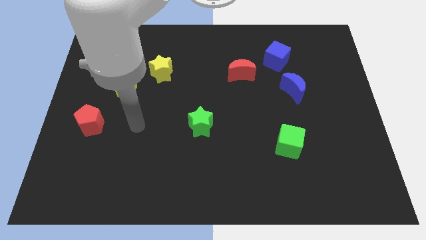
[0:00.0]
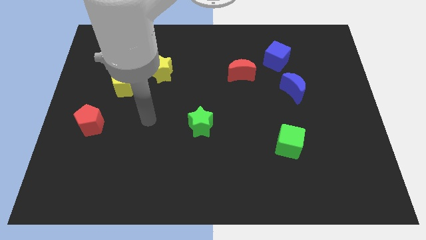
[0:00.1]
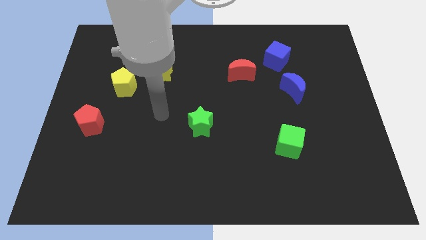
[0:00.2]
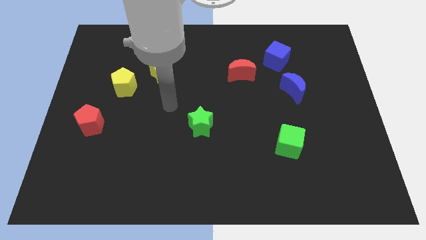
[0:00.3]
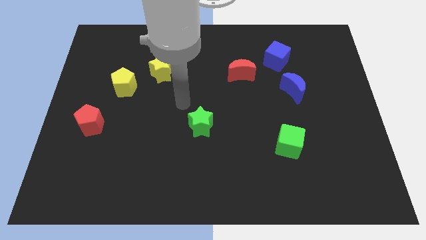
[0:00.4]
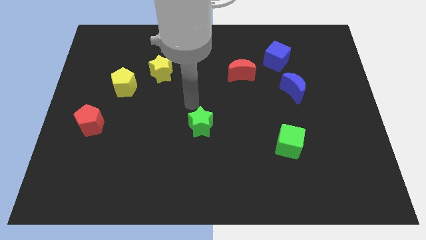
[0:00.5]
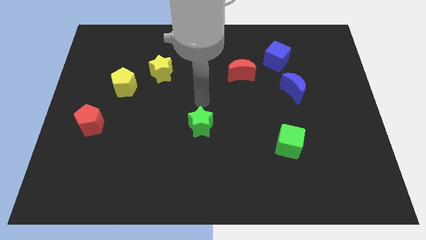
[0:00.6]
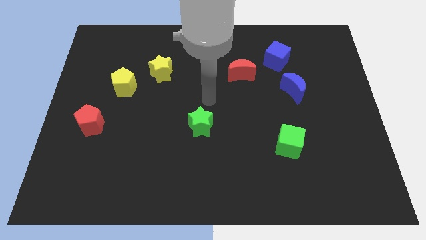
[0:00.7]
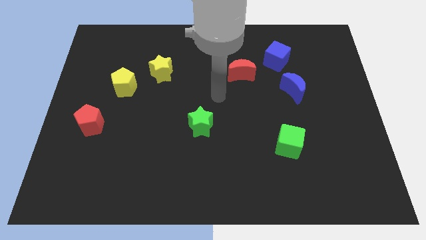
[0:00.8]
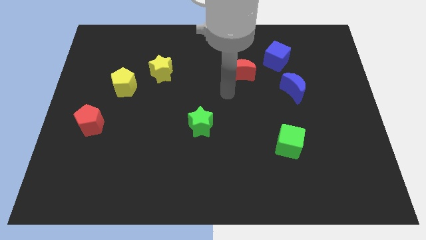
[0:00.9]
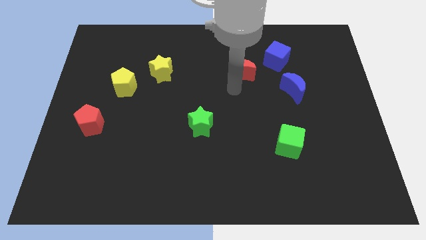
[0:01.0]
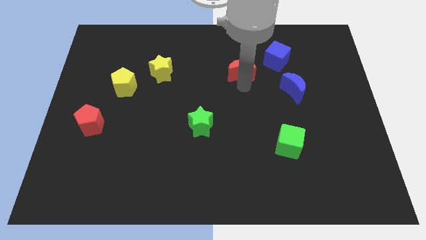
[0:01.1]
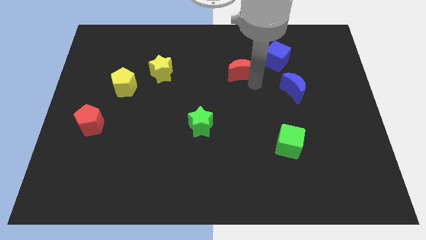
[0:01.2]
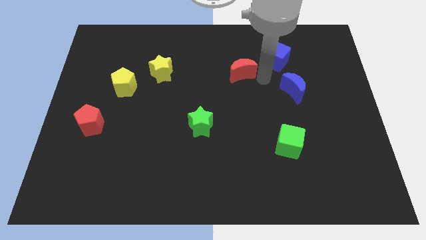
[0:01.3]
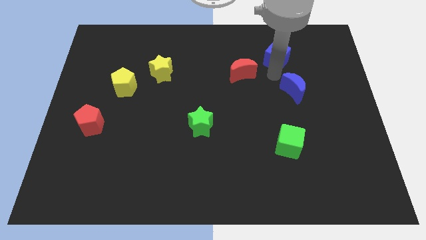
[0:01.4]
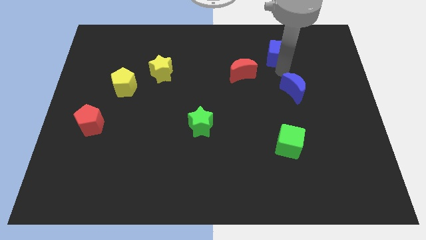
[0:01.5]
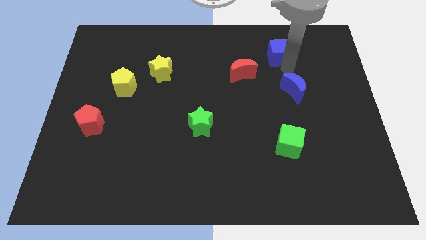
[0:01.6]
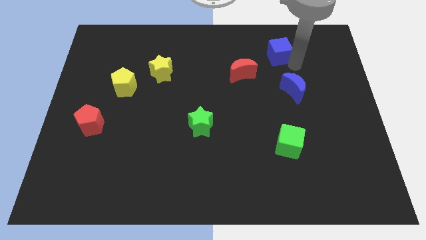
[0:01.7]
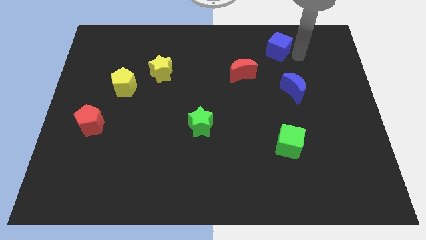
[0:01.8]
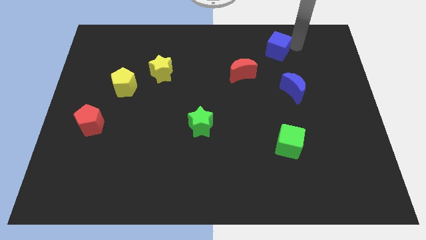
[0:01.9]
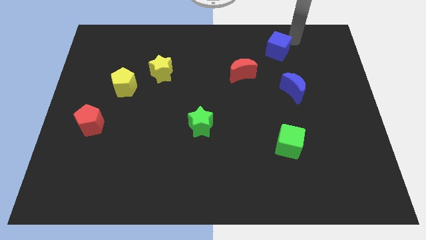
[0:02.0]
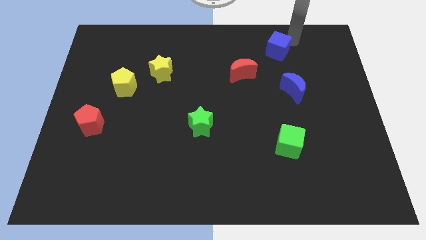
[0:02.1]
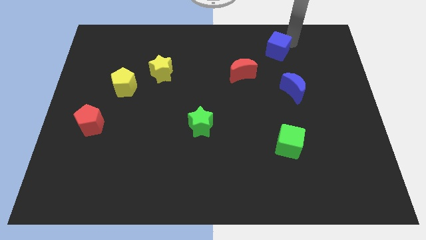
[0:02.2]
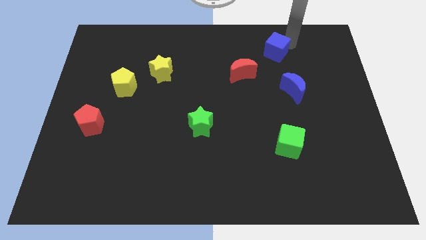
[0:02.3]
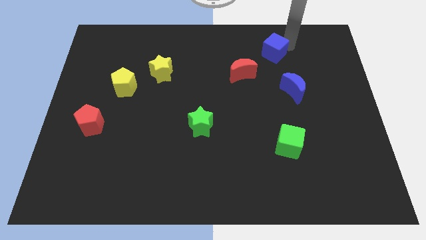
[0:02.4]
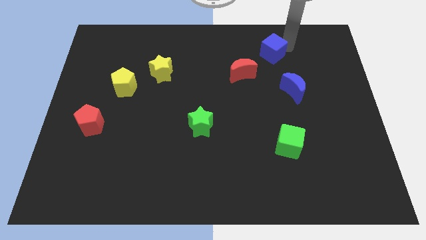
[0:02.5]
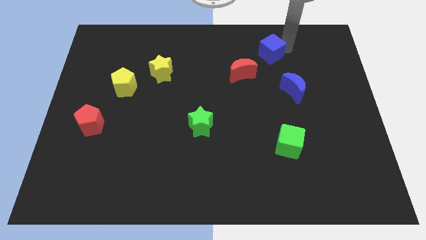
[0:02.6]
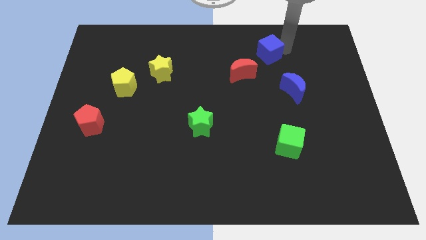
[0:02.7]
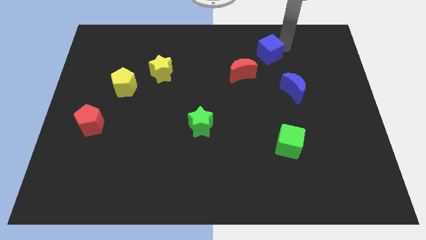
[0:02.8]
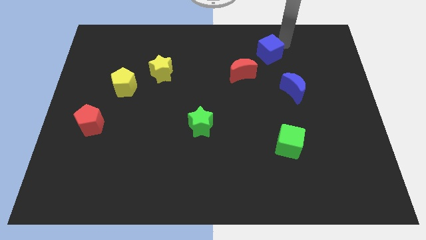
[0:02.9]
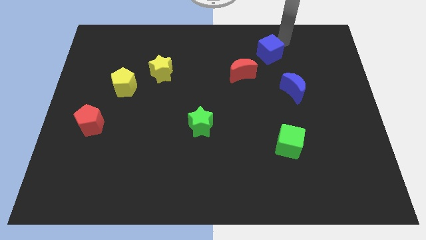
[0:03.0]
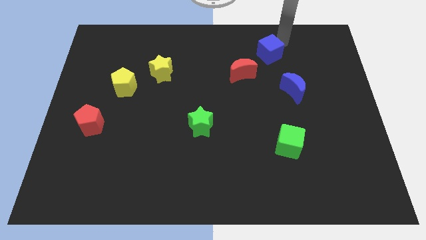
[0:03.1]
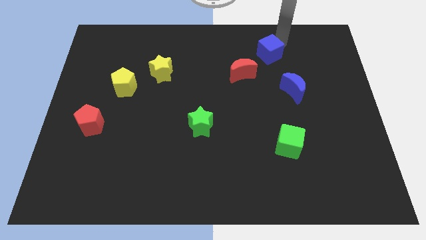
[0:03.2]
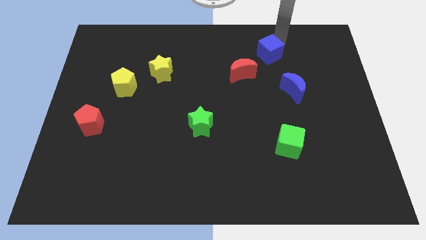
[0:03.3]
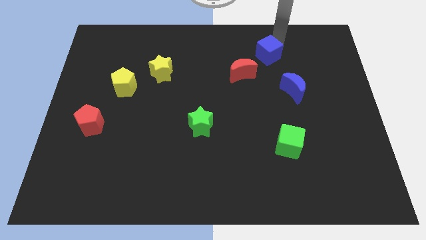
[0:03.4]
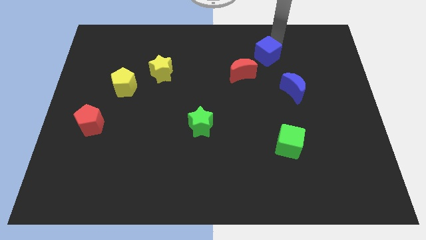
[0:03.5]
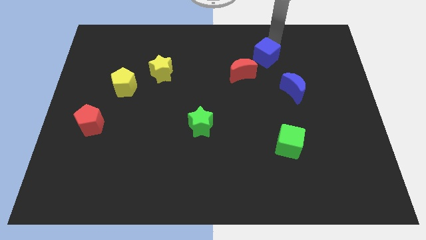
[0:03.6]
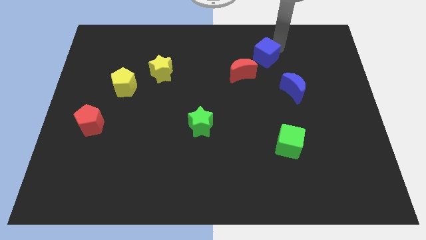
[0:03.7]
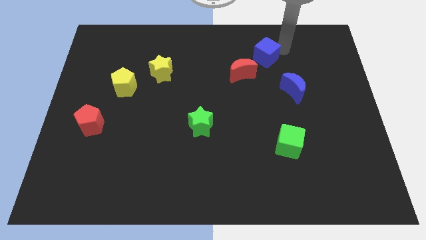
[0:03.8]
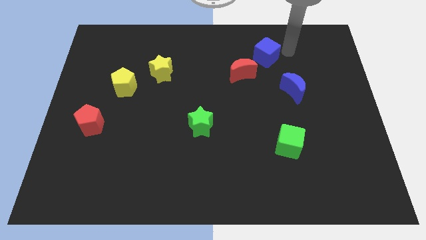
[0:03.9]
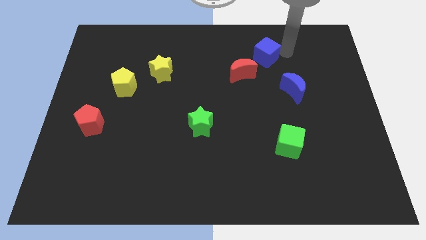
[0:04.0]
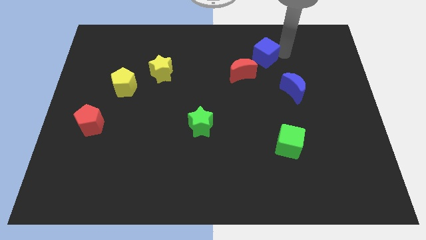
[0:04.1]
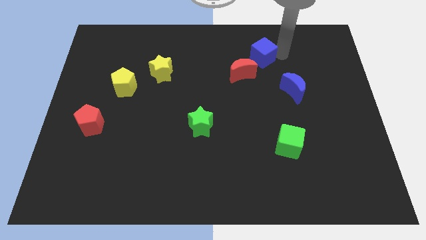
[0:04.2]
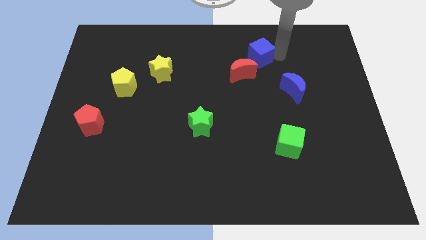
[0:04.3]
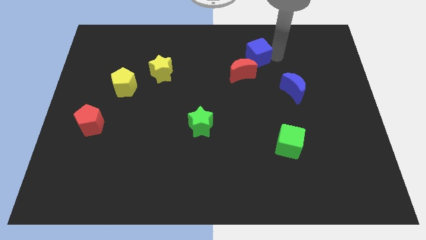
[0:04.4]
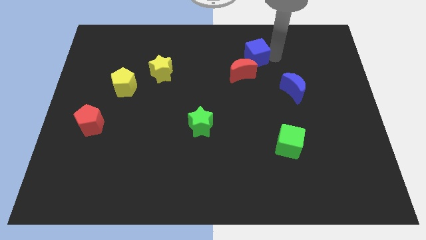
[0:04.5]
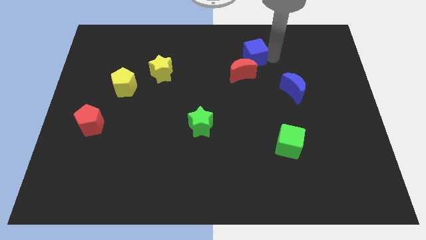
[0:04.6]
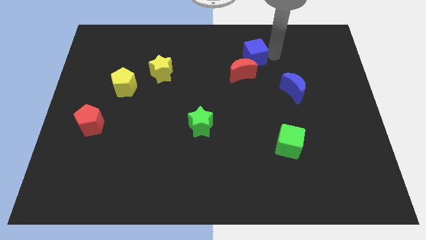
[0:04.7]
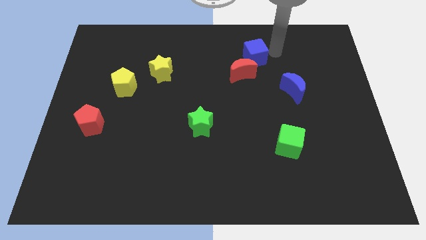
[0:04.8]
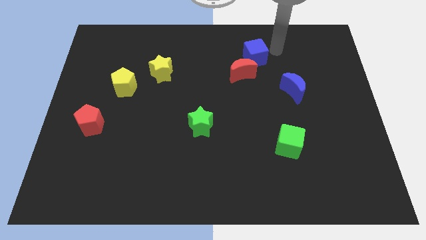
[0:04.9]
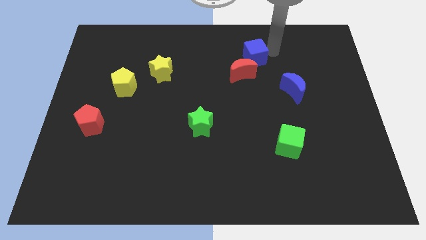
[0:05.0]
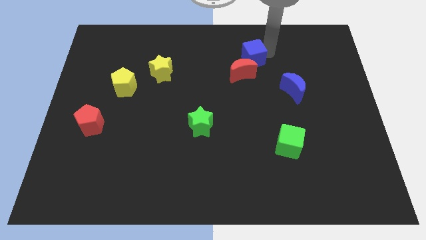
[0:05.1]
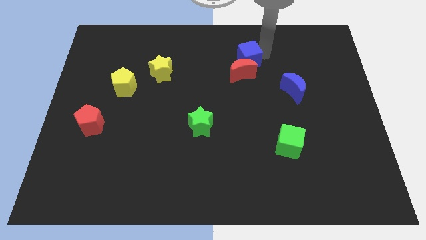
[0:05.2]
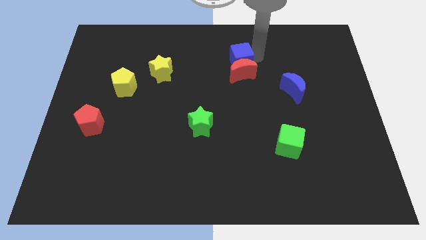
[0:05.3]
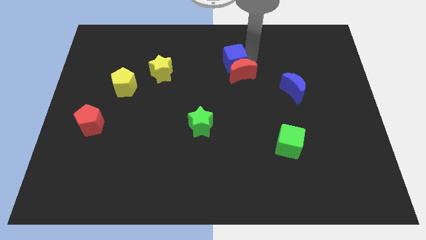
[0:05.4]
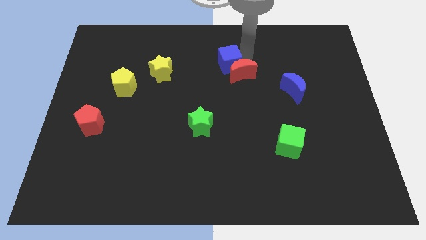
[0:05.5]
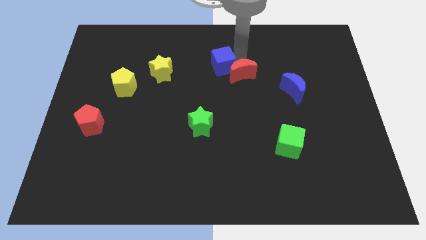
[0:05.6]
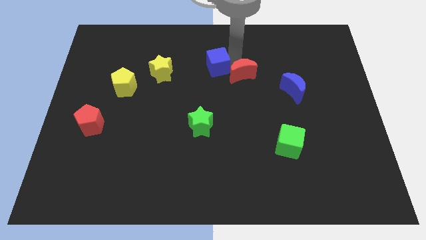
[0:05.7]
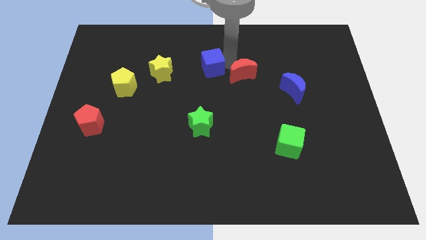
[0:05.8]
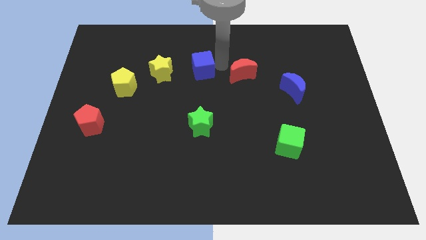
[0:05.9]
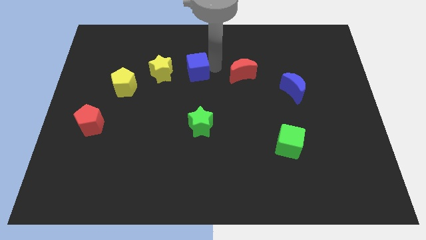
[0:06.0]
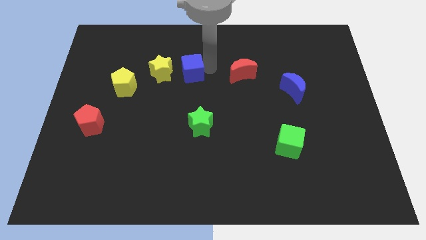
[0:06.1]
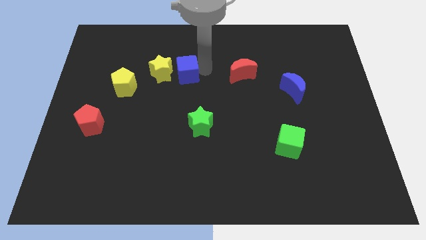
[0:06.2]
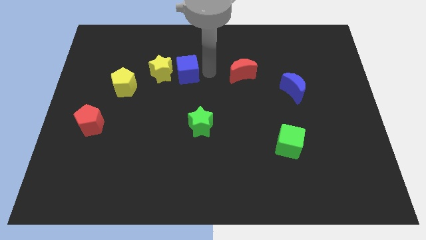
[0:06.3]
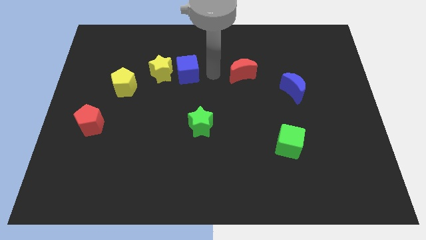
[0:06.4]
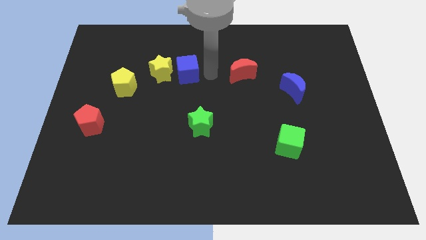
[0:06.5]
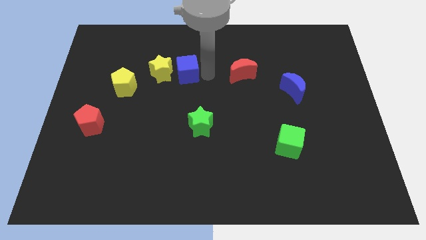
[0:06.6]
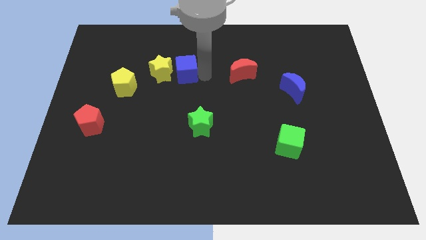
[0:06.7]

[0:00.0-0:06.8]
push the blue cube next to the yellow star
